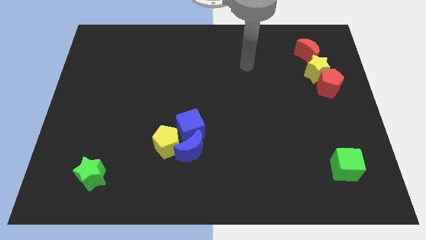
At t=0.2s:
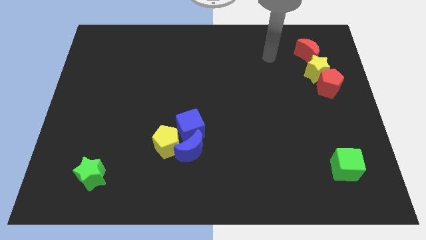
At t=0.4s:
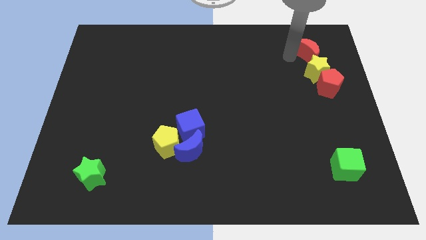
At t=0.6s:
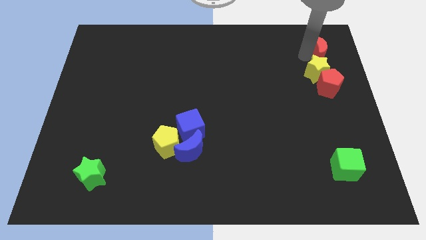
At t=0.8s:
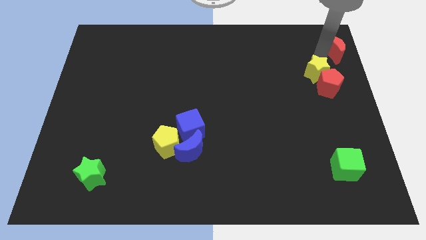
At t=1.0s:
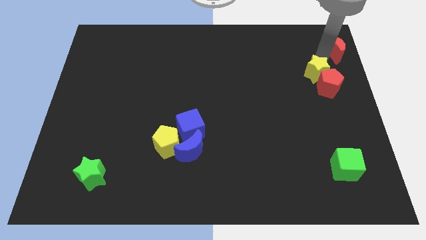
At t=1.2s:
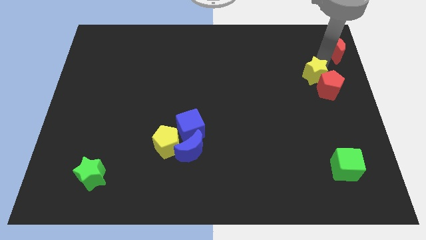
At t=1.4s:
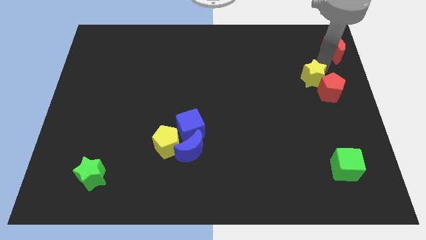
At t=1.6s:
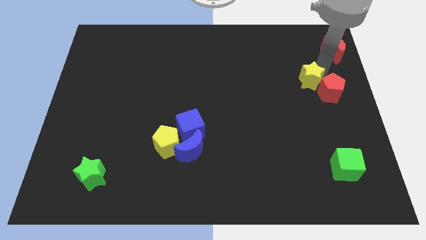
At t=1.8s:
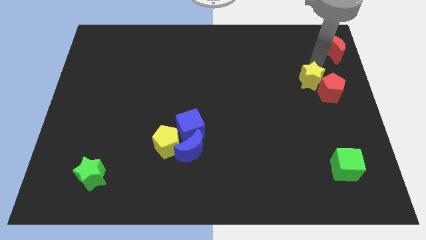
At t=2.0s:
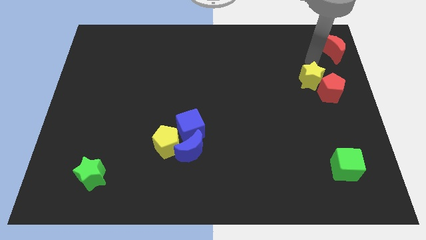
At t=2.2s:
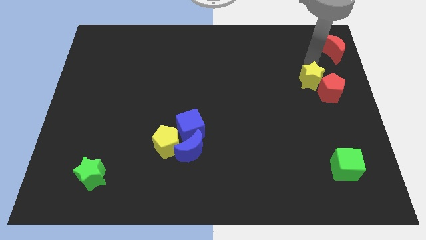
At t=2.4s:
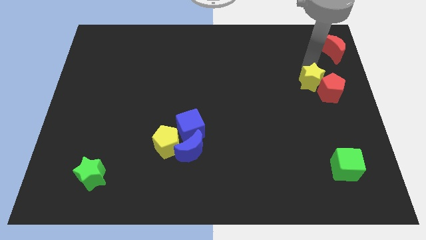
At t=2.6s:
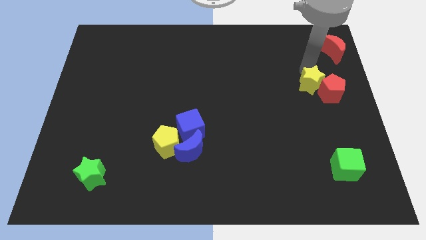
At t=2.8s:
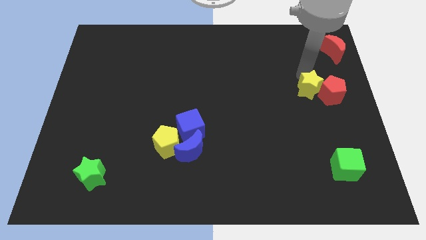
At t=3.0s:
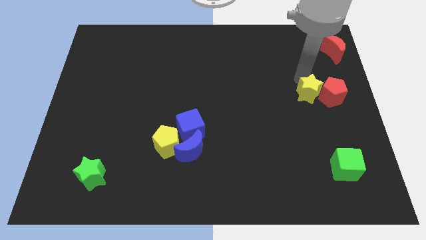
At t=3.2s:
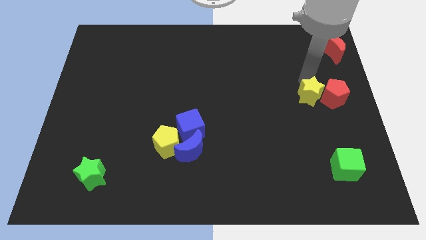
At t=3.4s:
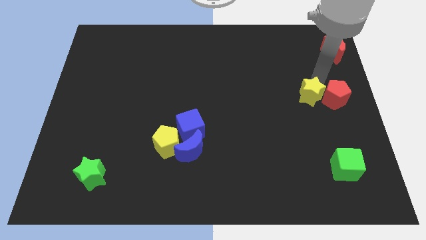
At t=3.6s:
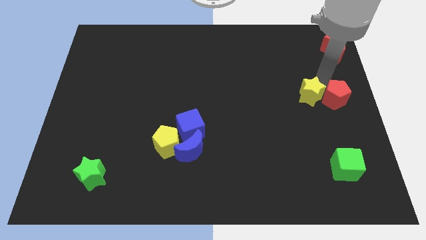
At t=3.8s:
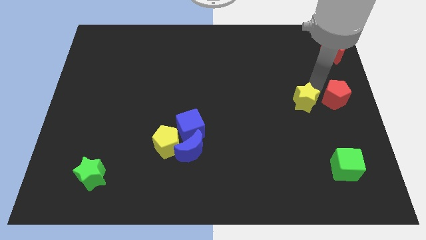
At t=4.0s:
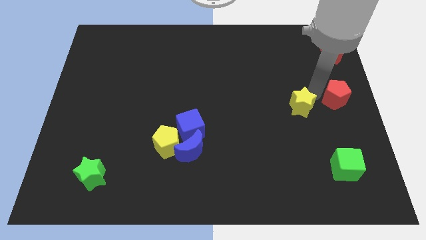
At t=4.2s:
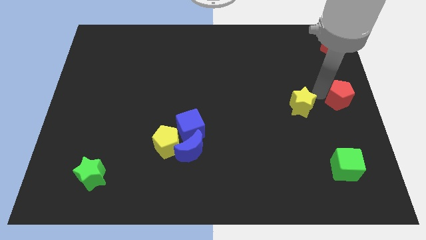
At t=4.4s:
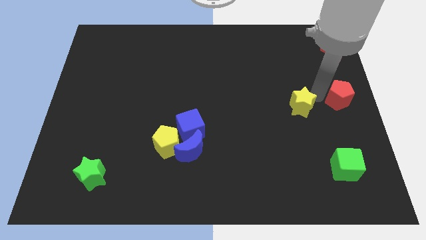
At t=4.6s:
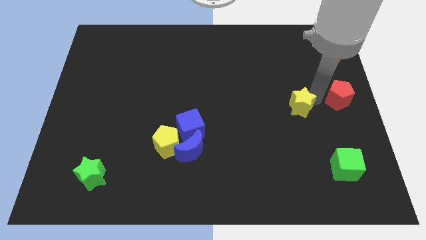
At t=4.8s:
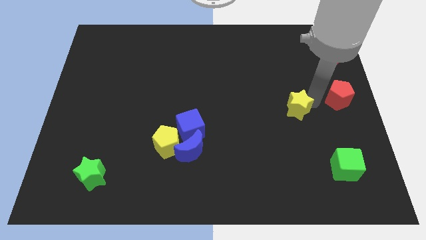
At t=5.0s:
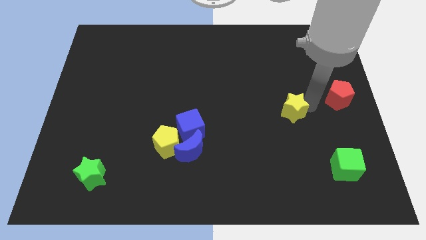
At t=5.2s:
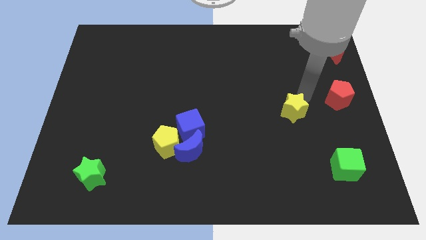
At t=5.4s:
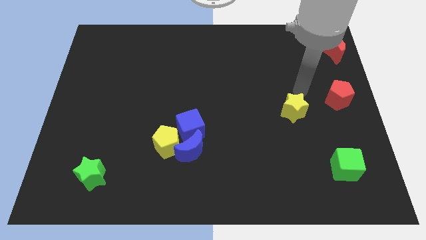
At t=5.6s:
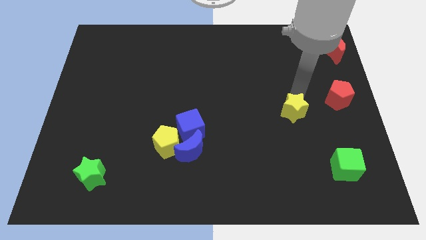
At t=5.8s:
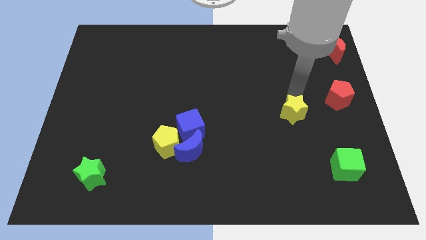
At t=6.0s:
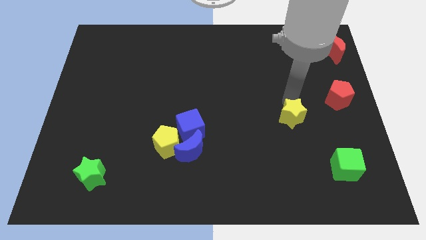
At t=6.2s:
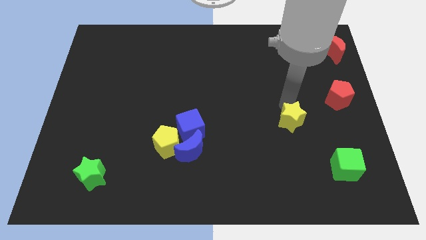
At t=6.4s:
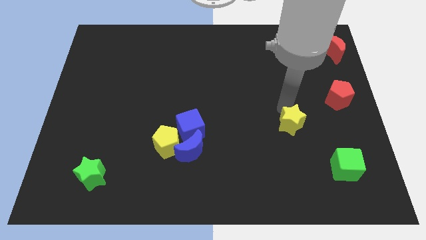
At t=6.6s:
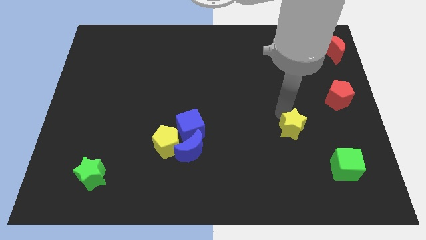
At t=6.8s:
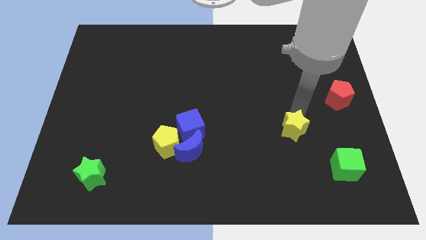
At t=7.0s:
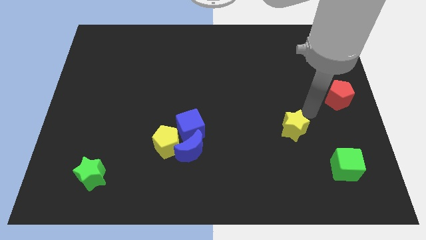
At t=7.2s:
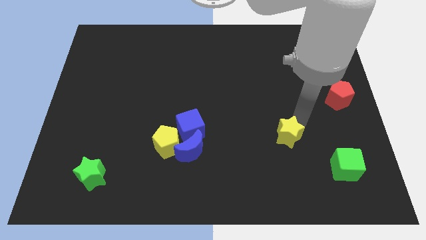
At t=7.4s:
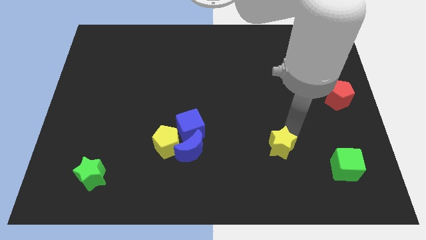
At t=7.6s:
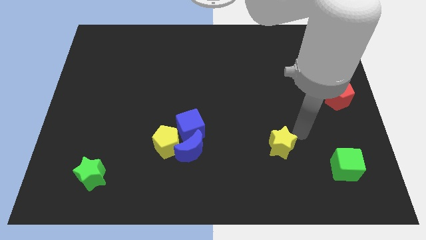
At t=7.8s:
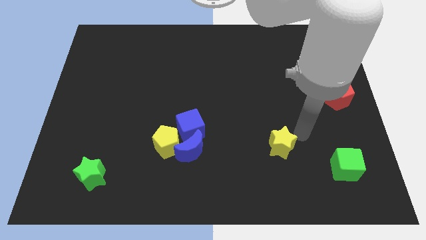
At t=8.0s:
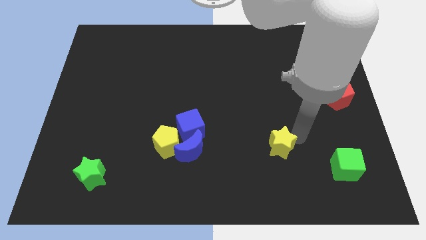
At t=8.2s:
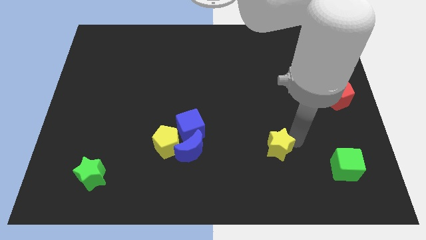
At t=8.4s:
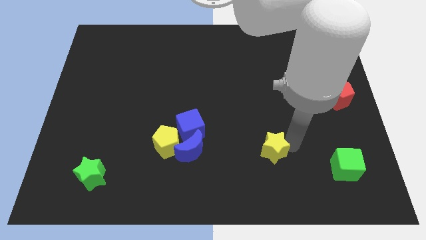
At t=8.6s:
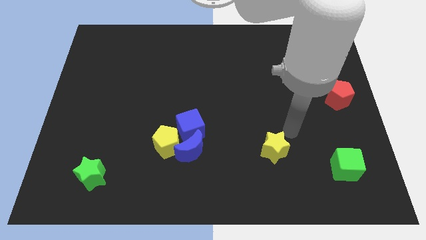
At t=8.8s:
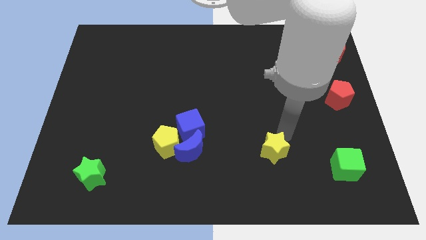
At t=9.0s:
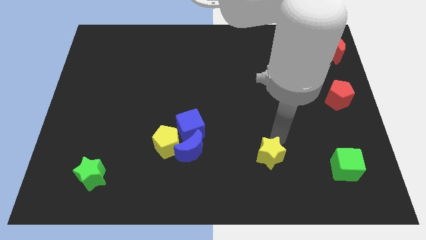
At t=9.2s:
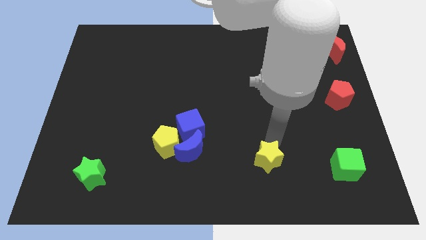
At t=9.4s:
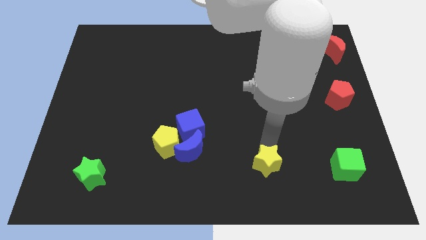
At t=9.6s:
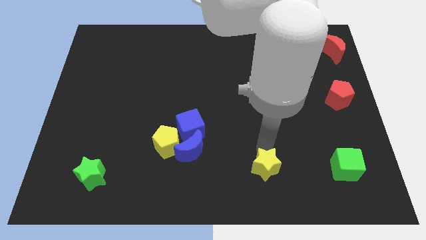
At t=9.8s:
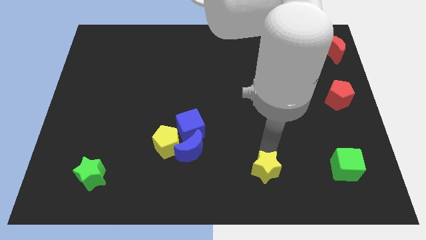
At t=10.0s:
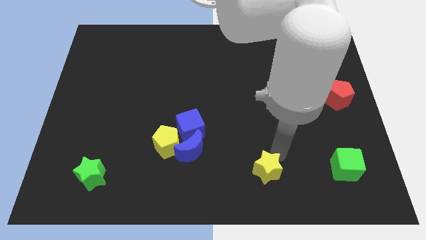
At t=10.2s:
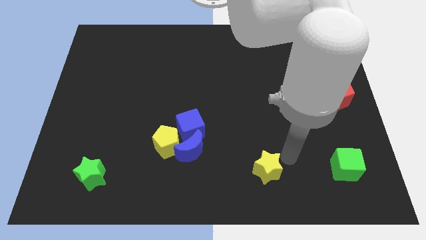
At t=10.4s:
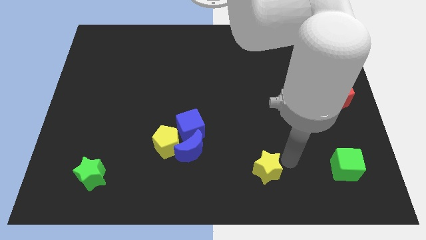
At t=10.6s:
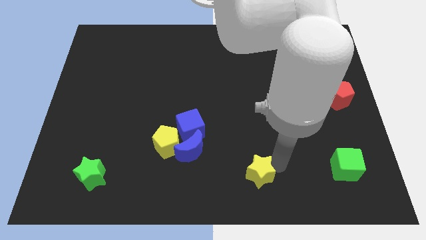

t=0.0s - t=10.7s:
push the yellow star to the bottom

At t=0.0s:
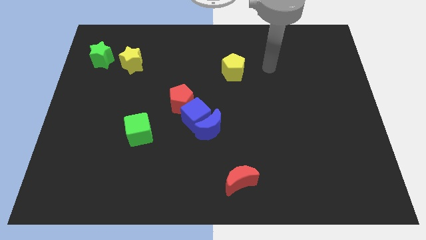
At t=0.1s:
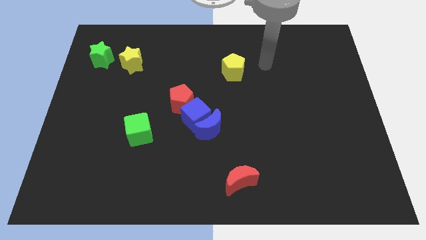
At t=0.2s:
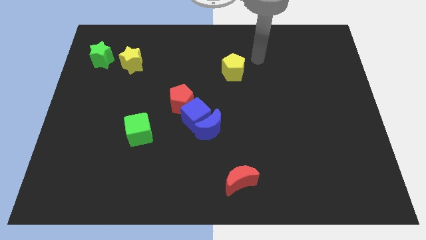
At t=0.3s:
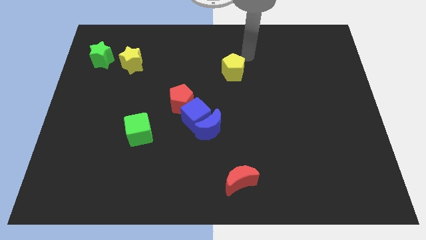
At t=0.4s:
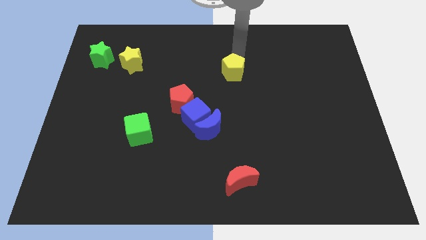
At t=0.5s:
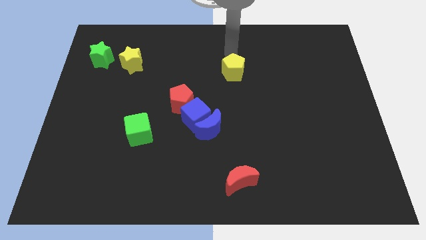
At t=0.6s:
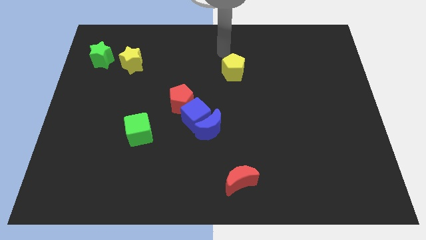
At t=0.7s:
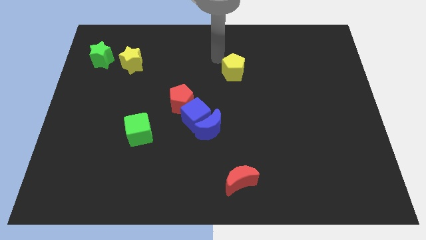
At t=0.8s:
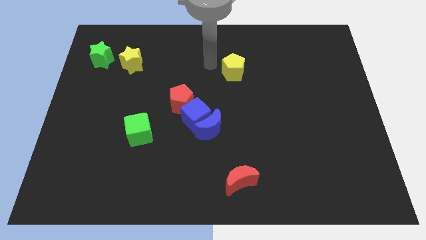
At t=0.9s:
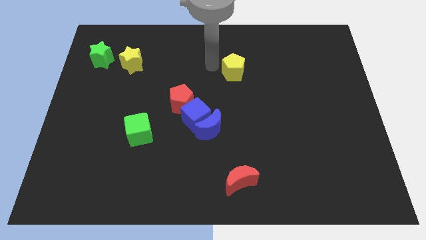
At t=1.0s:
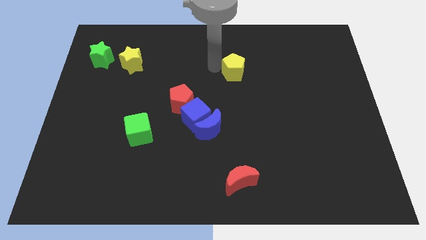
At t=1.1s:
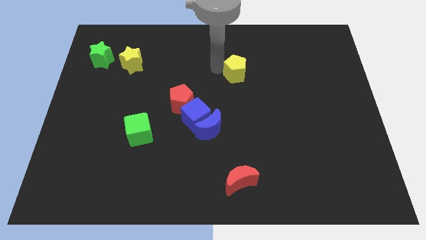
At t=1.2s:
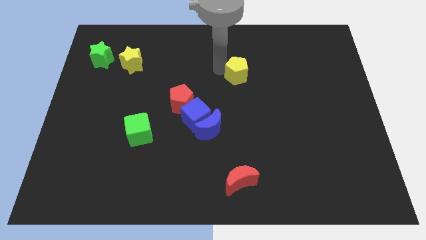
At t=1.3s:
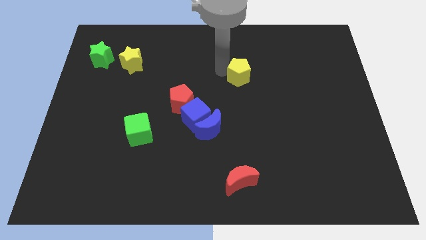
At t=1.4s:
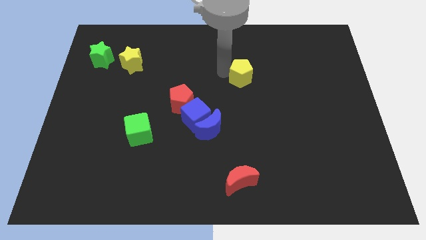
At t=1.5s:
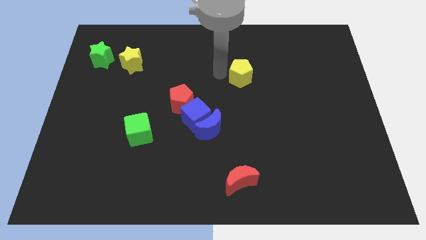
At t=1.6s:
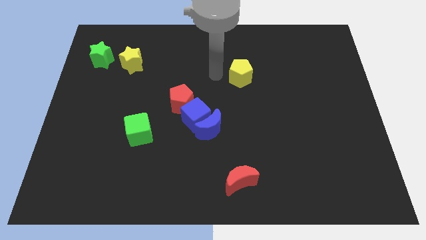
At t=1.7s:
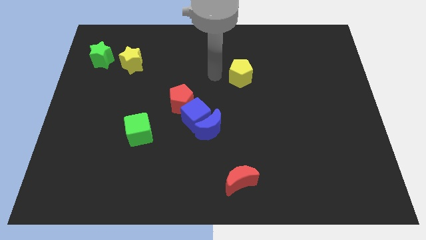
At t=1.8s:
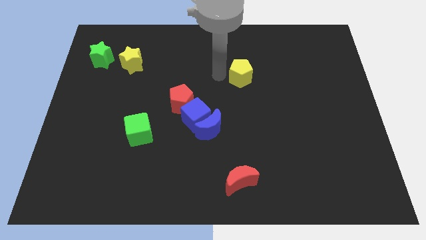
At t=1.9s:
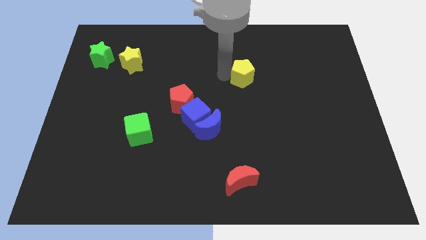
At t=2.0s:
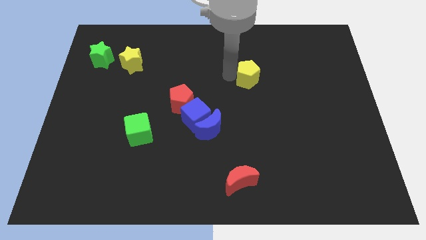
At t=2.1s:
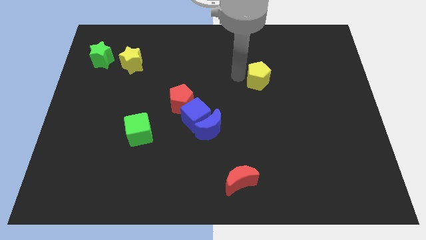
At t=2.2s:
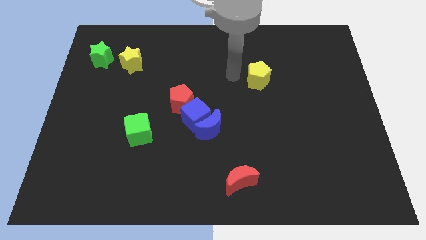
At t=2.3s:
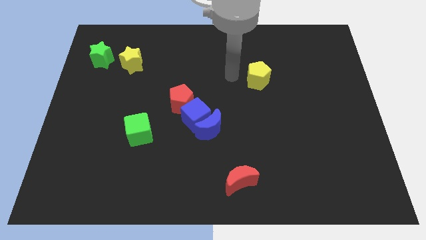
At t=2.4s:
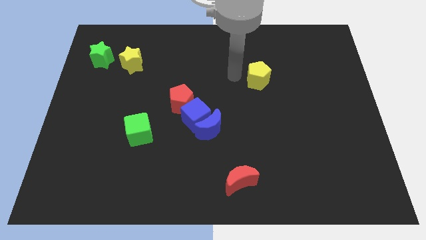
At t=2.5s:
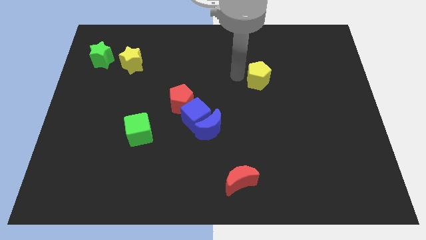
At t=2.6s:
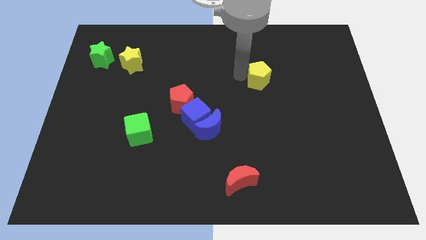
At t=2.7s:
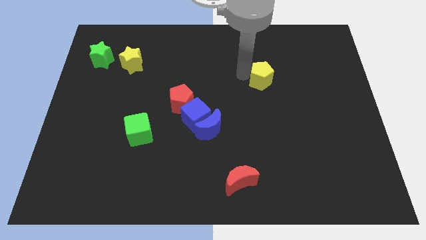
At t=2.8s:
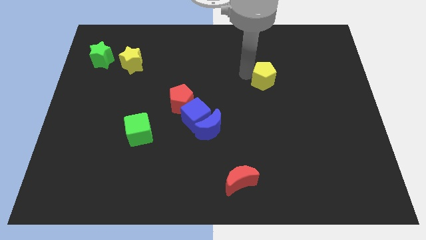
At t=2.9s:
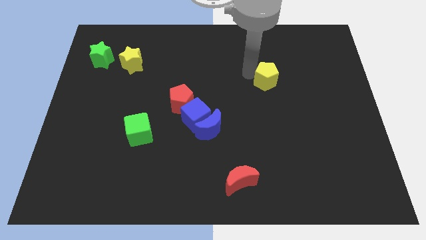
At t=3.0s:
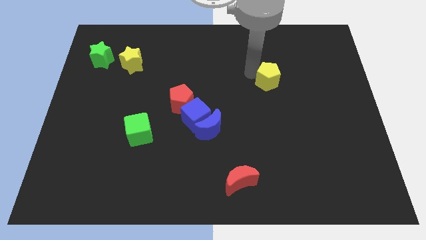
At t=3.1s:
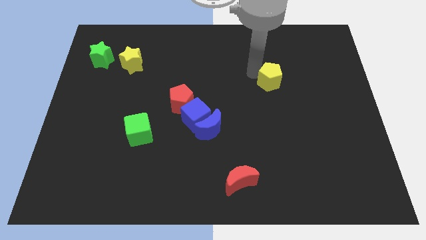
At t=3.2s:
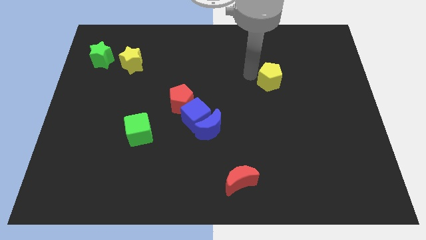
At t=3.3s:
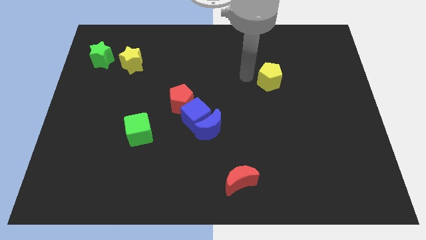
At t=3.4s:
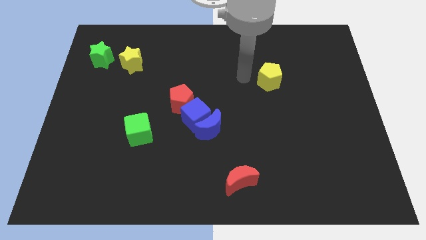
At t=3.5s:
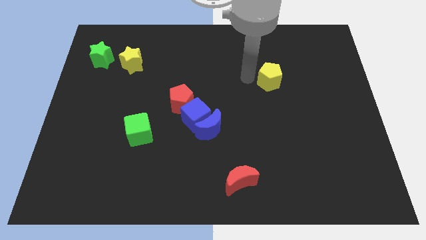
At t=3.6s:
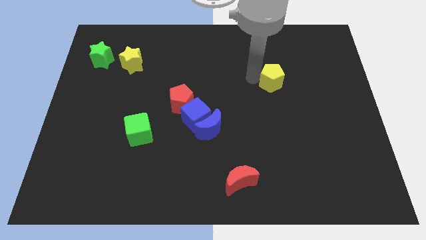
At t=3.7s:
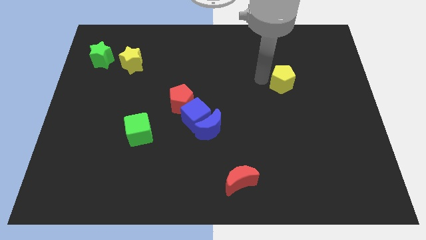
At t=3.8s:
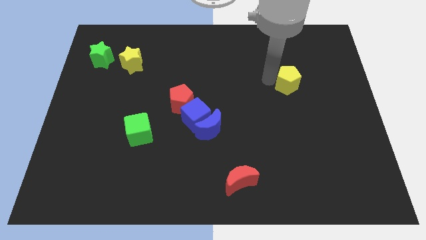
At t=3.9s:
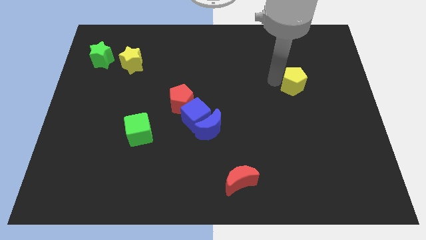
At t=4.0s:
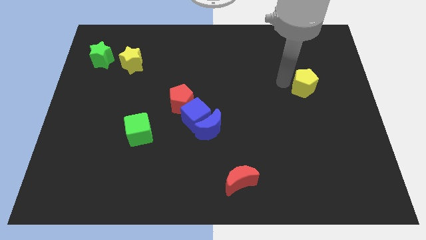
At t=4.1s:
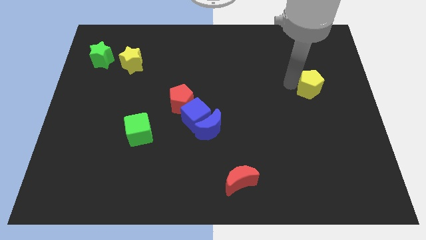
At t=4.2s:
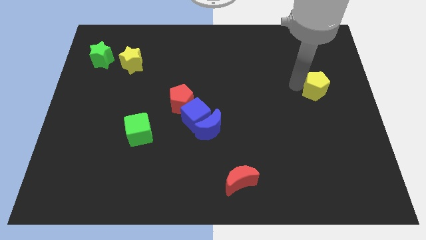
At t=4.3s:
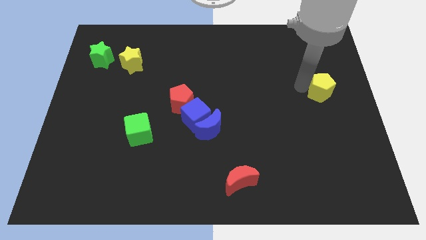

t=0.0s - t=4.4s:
move the yellow pentagon to the right side
